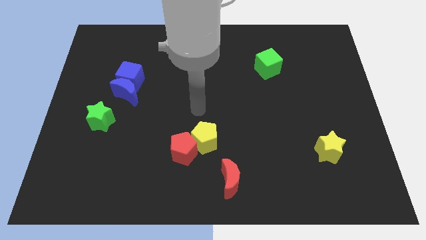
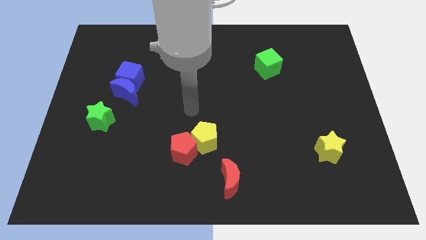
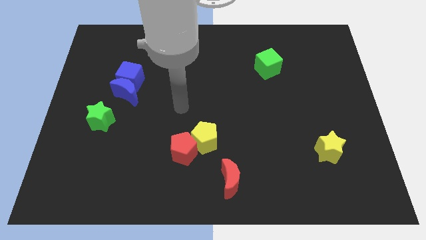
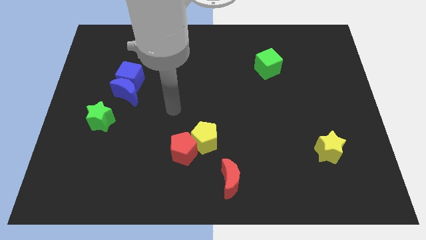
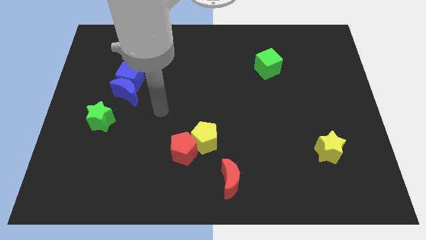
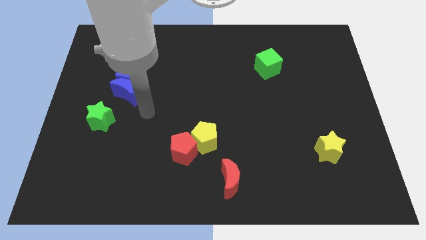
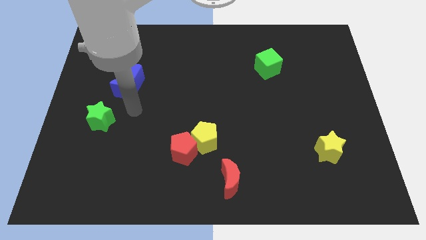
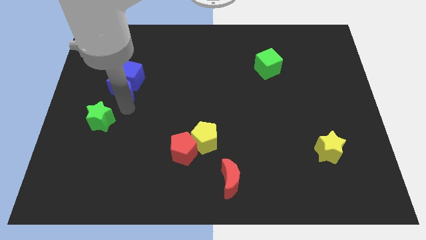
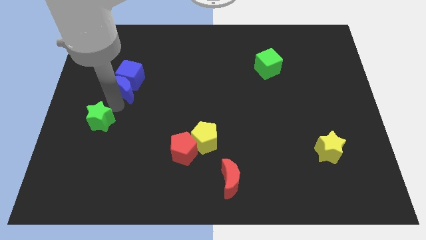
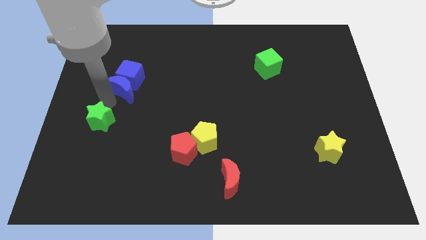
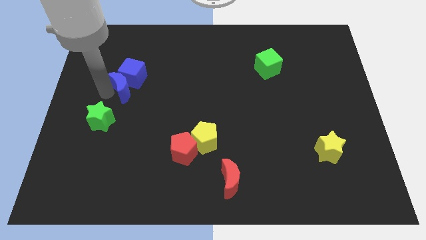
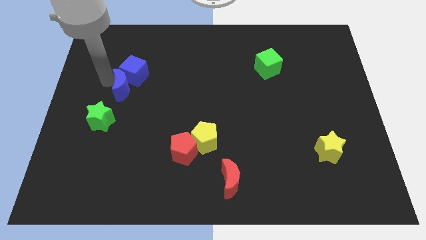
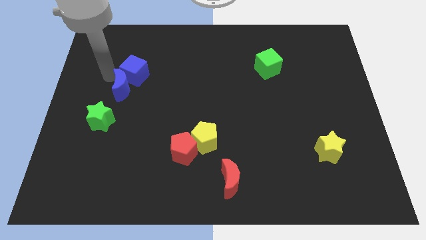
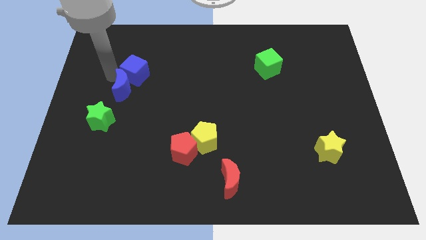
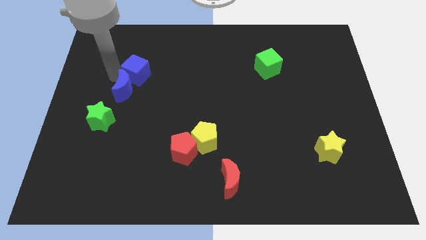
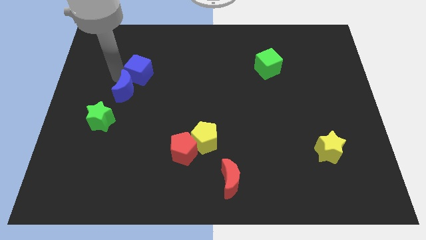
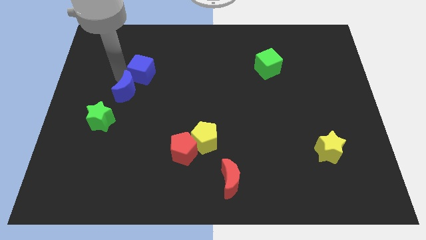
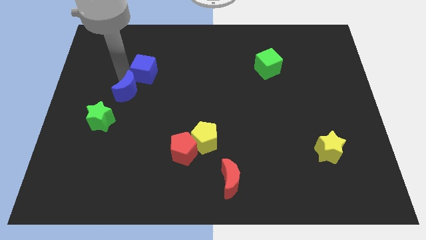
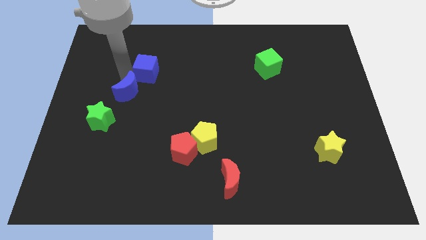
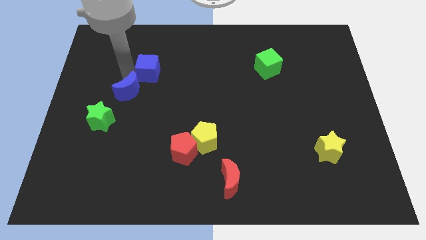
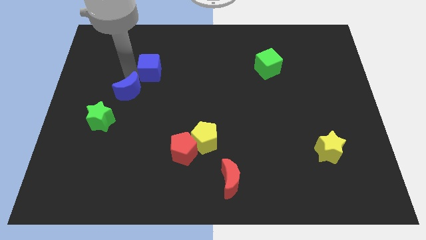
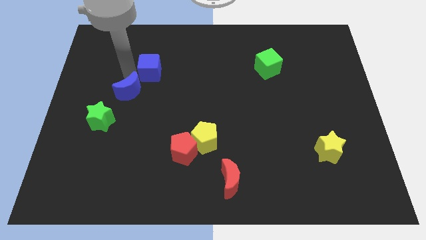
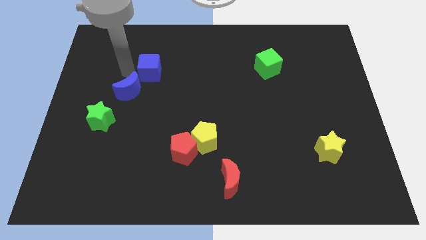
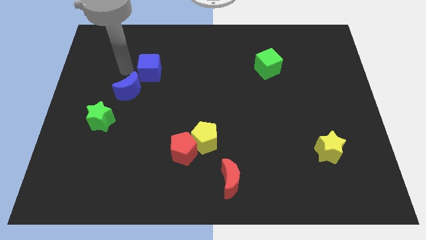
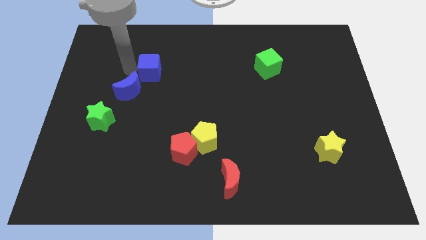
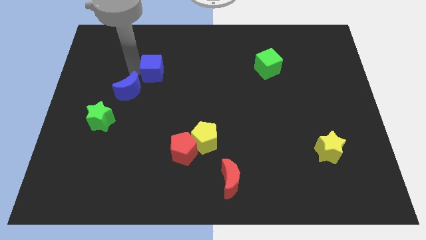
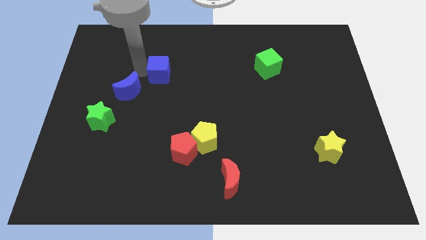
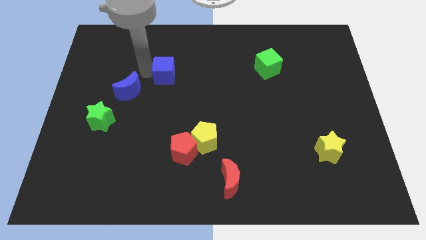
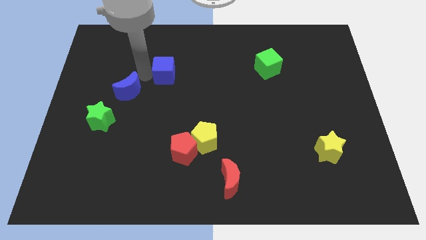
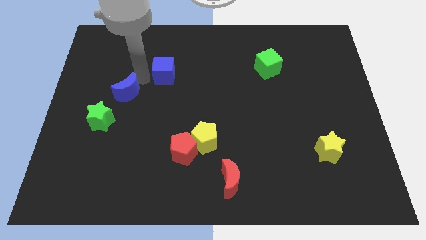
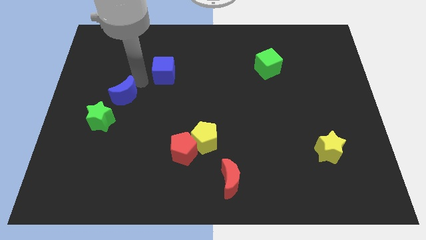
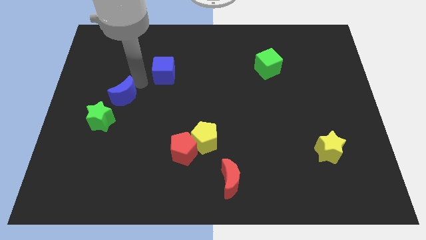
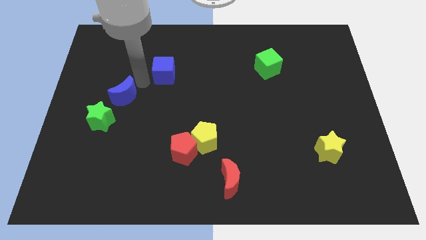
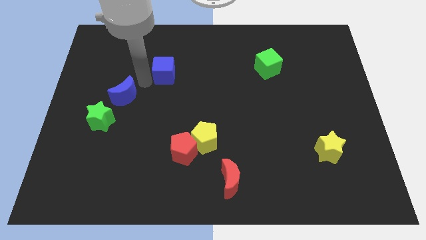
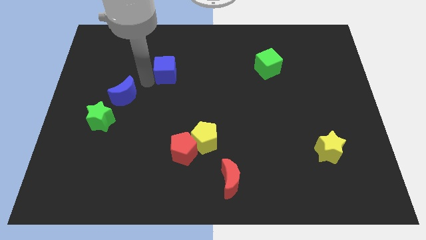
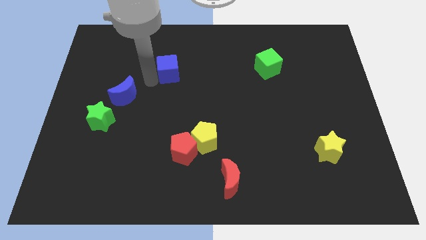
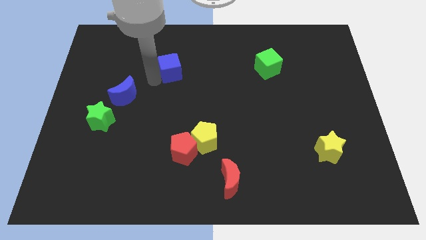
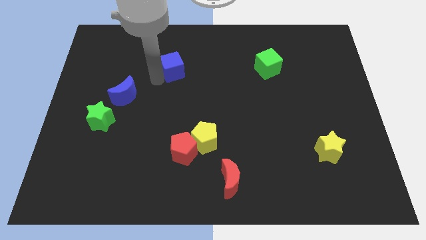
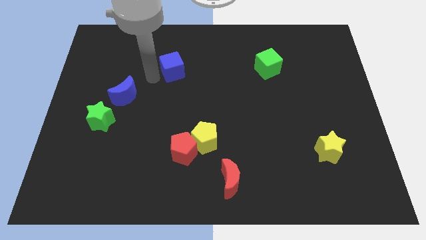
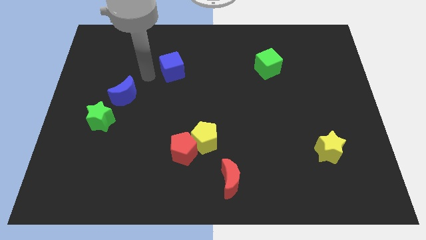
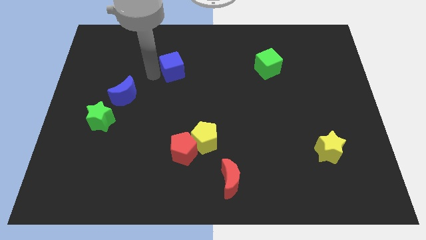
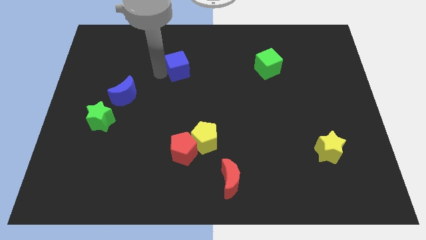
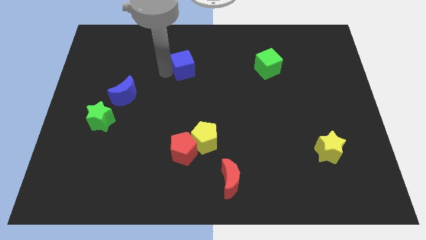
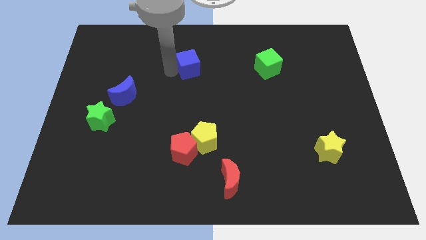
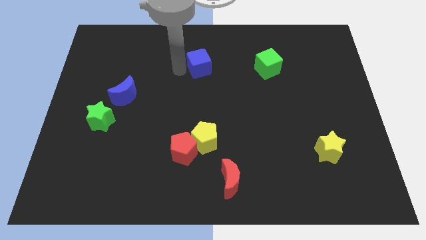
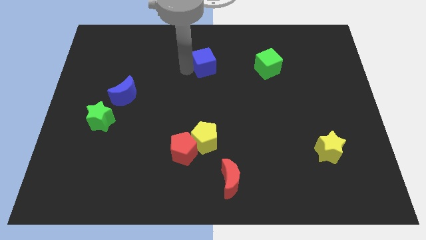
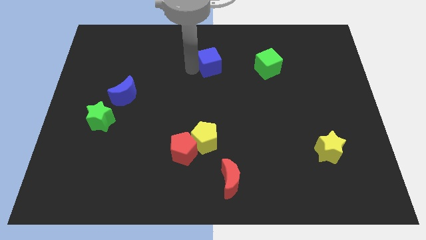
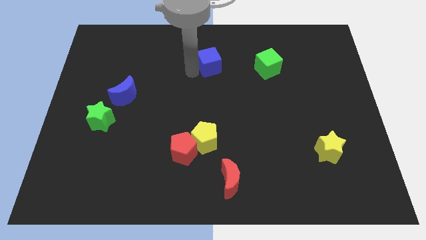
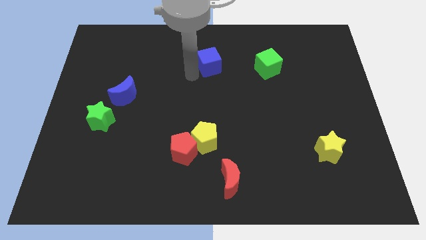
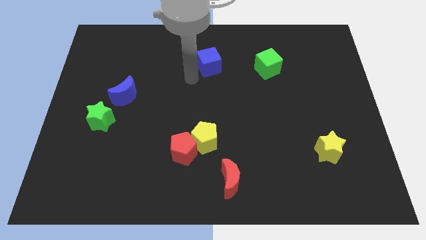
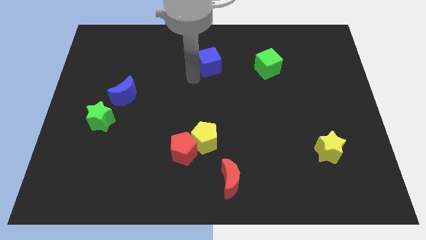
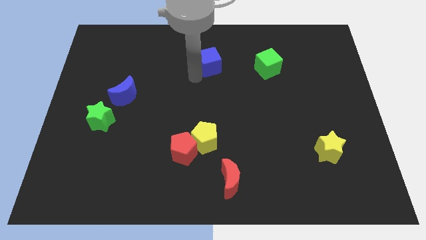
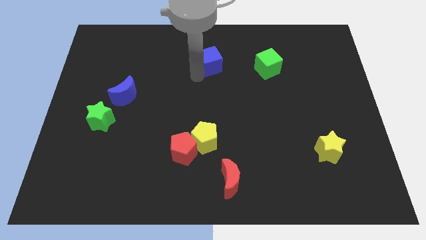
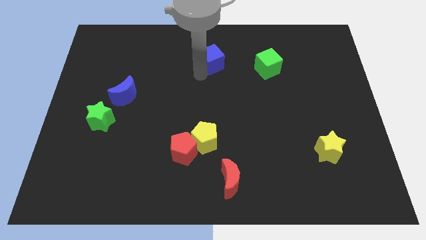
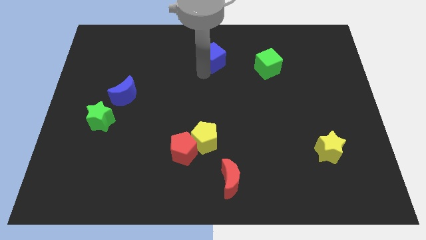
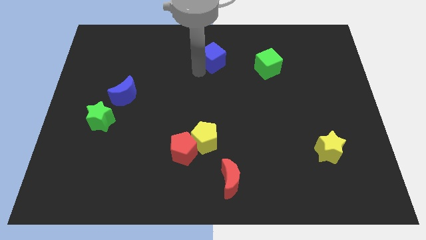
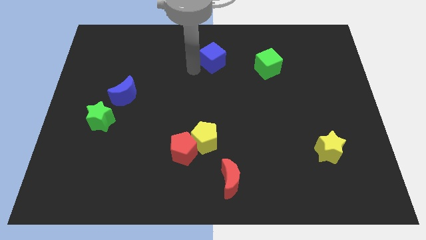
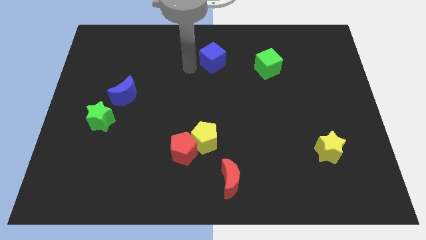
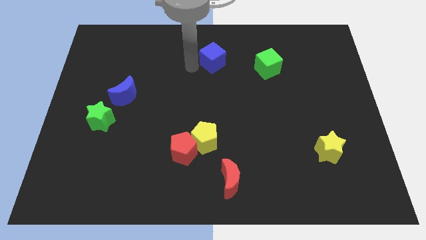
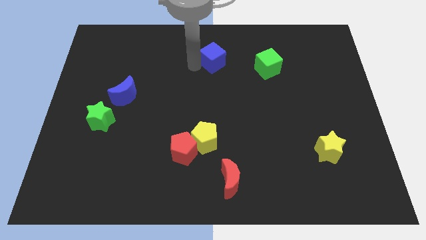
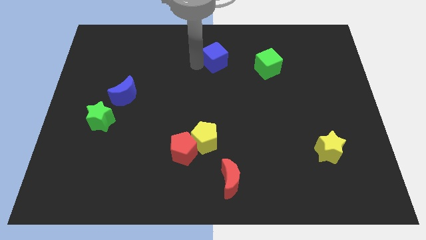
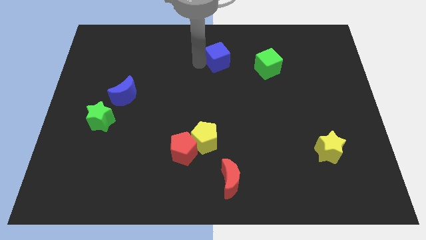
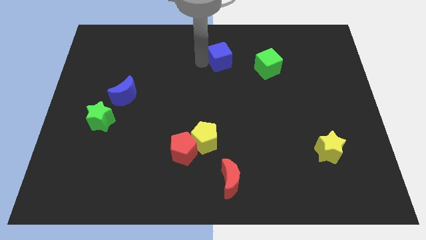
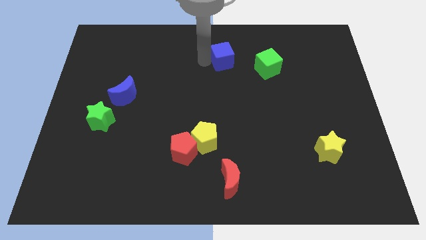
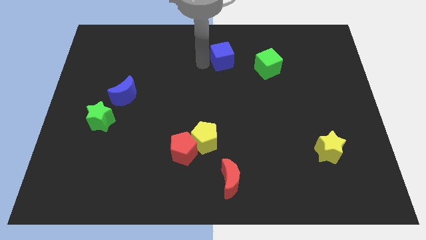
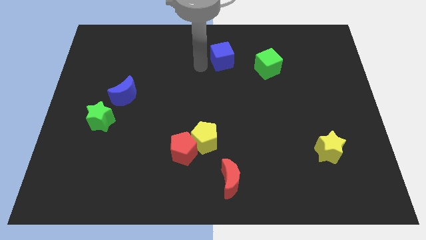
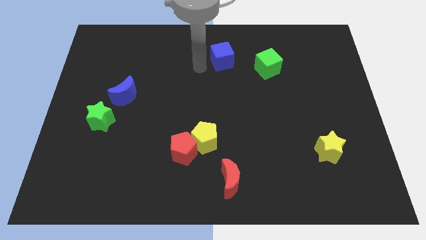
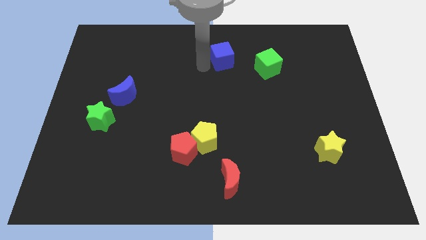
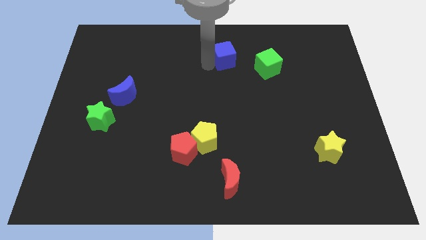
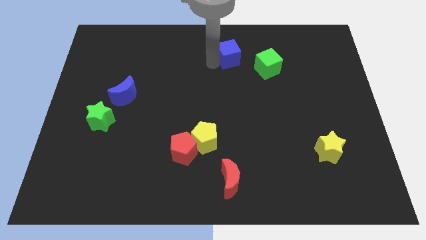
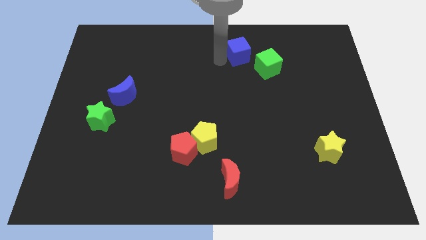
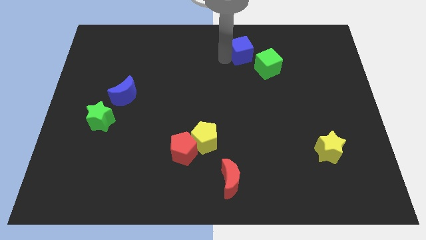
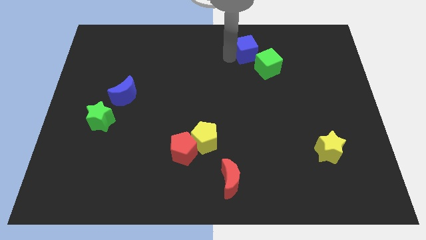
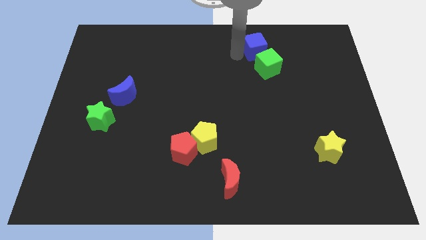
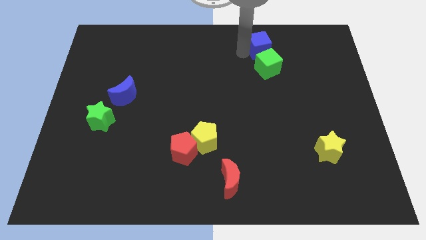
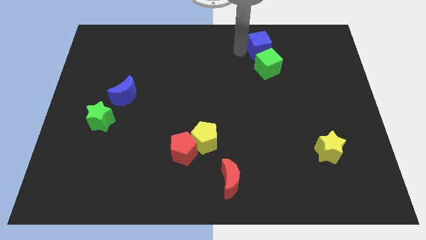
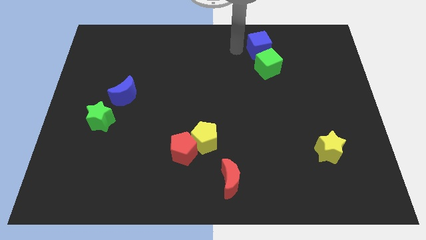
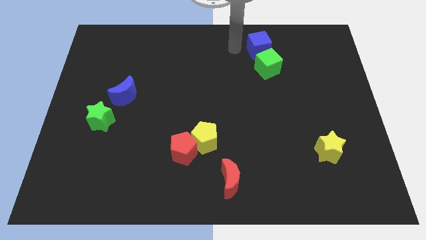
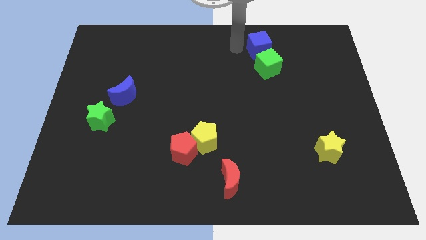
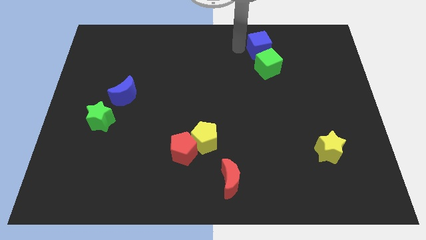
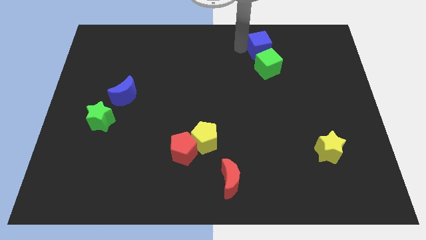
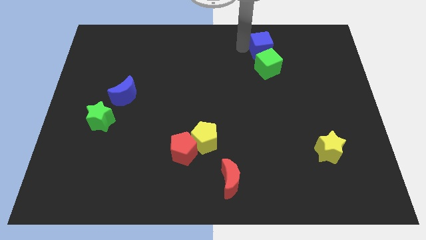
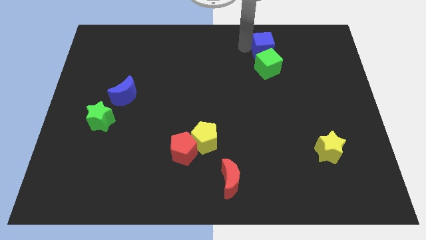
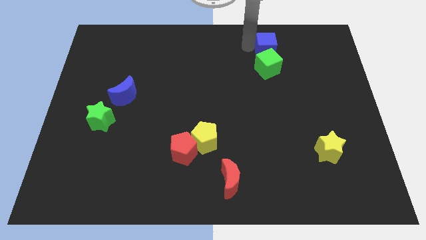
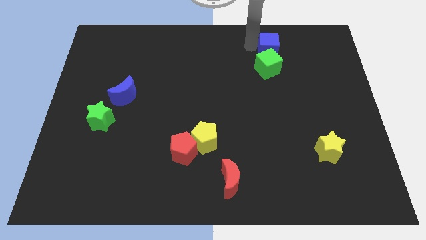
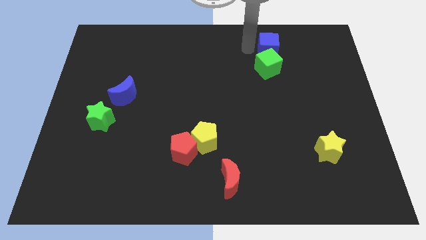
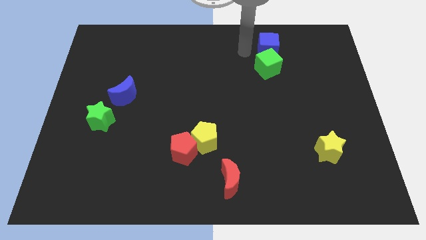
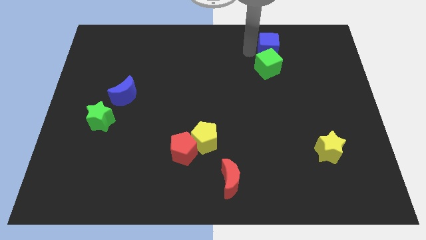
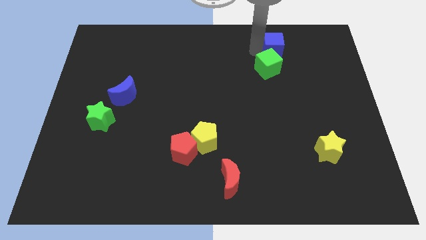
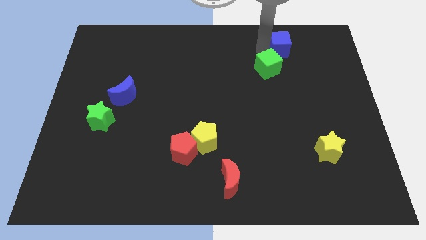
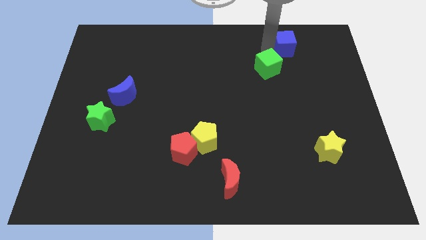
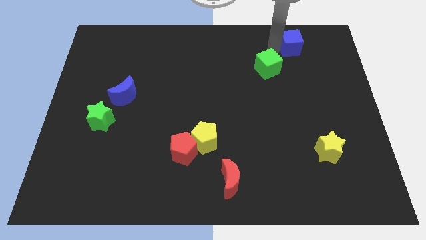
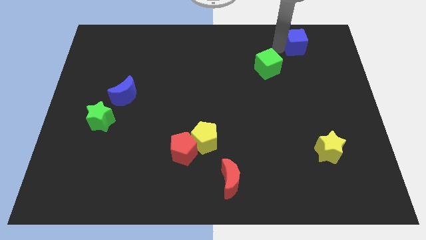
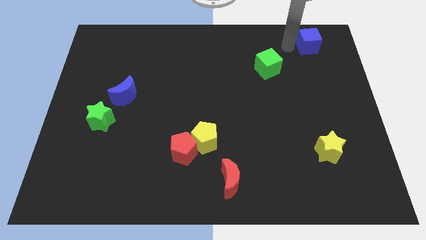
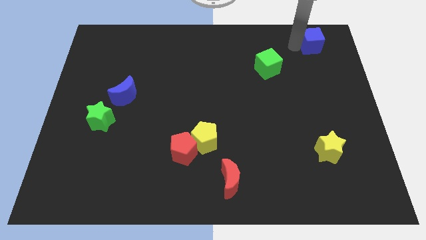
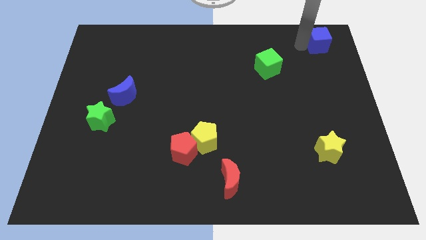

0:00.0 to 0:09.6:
slide the blue cube to the upper right corner
